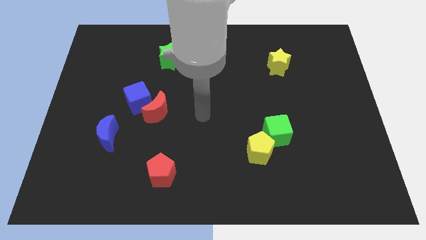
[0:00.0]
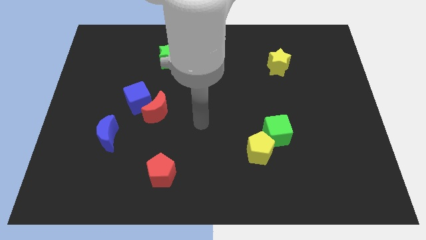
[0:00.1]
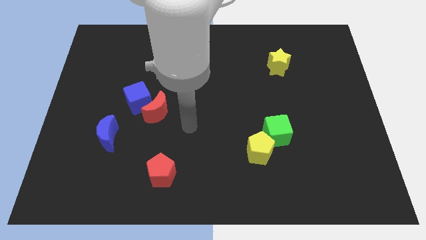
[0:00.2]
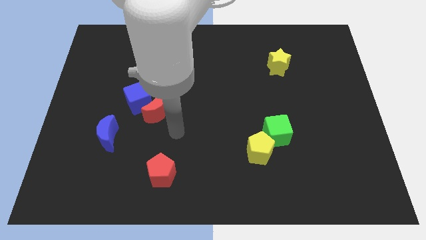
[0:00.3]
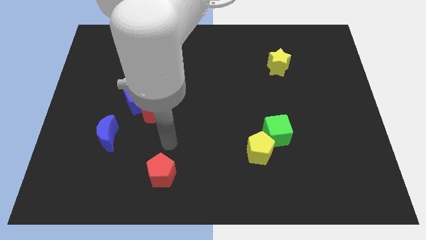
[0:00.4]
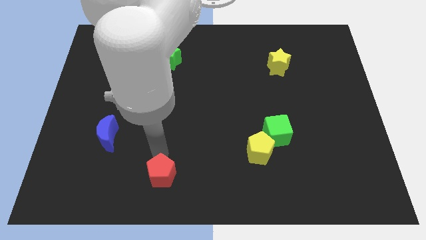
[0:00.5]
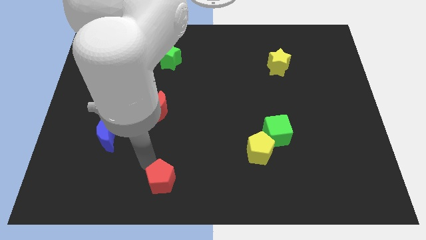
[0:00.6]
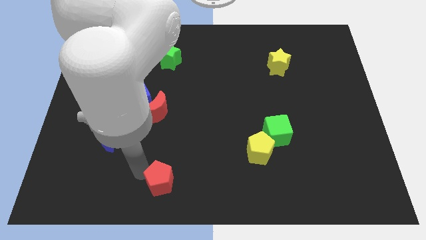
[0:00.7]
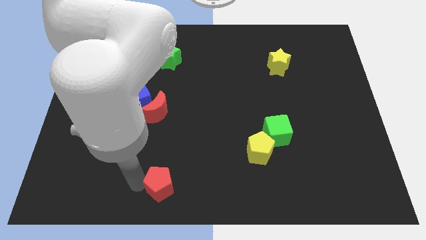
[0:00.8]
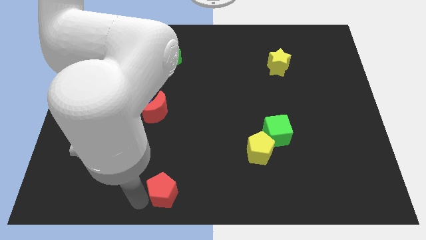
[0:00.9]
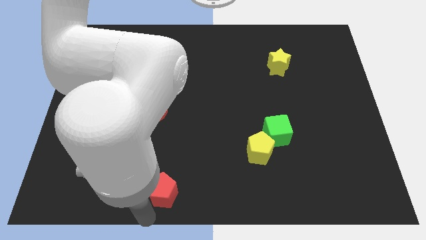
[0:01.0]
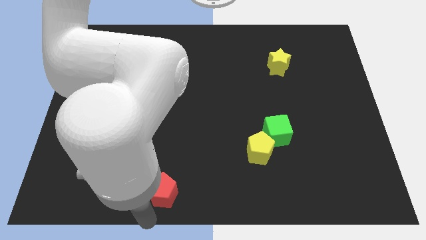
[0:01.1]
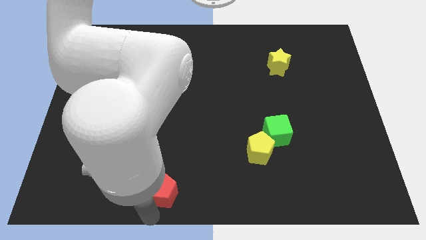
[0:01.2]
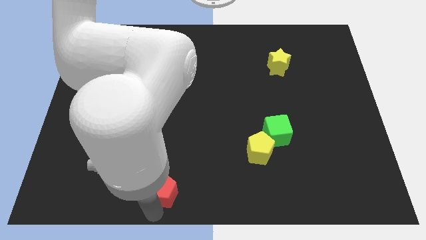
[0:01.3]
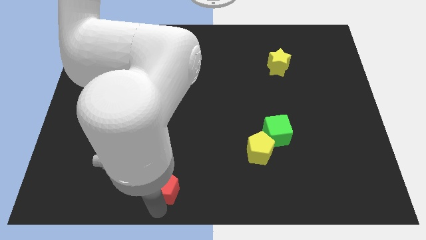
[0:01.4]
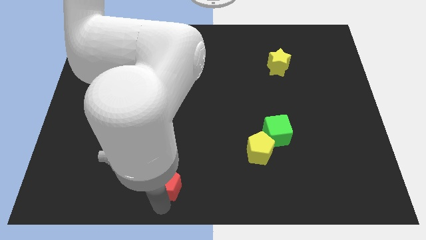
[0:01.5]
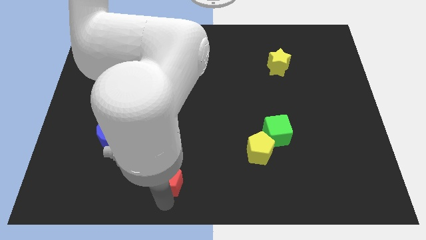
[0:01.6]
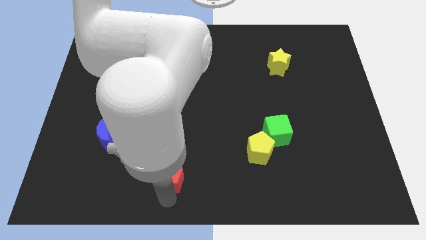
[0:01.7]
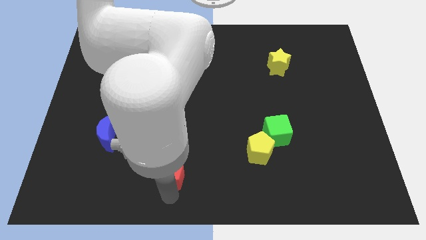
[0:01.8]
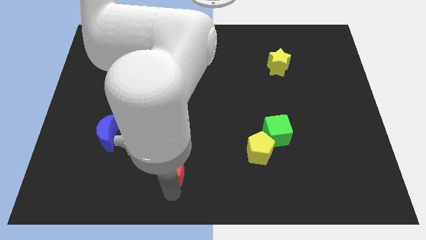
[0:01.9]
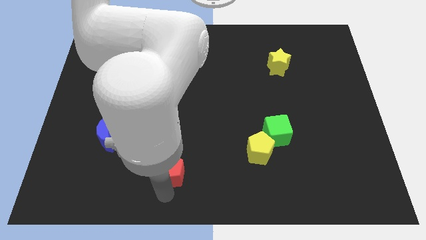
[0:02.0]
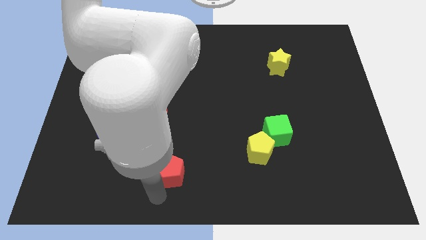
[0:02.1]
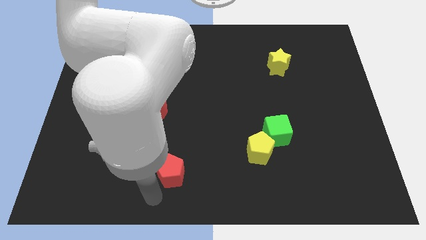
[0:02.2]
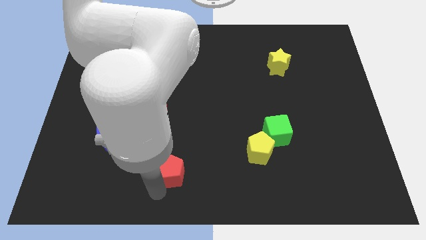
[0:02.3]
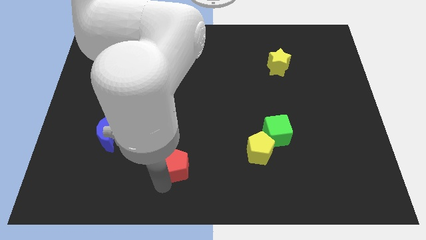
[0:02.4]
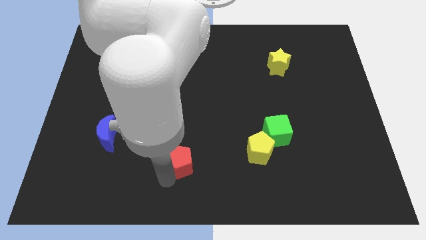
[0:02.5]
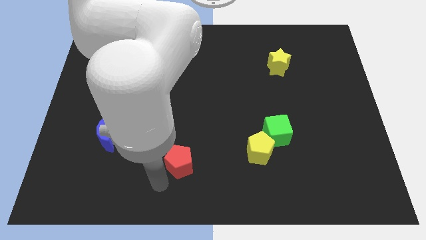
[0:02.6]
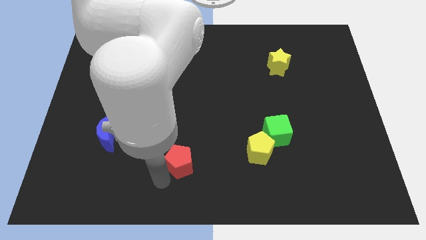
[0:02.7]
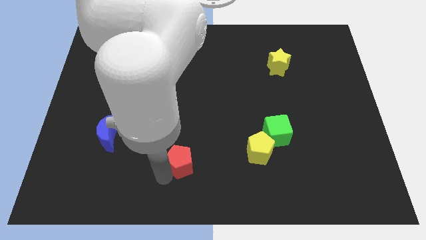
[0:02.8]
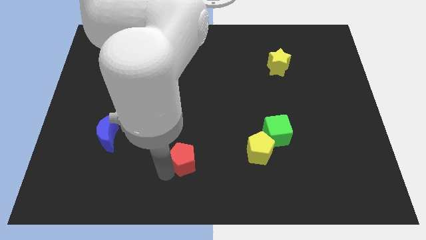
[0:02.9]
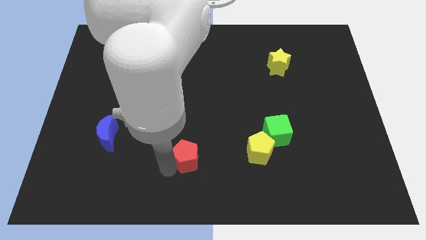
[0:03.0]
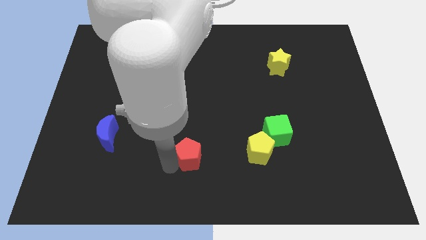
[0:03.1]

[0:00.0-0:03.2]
slide the red pentagon a little upwards and to the right diagonally

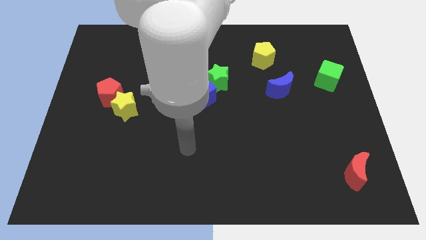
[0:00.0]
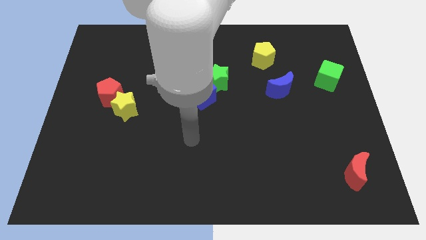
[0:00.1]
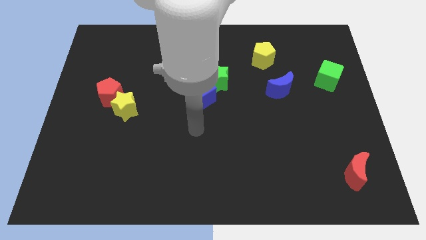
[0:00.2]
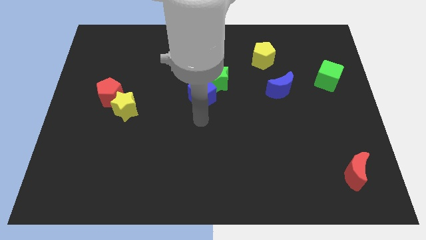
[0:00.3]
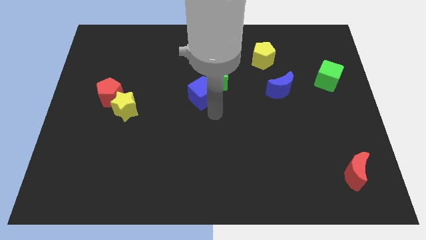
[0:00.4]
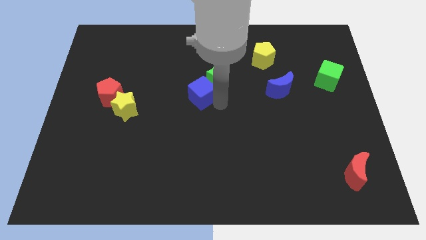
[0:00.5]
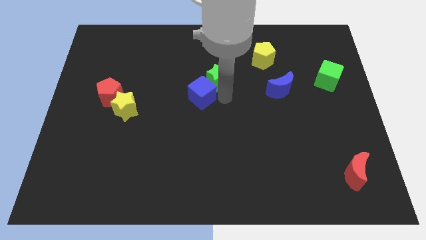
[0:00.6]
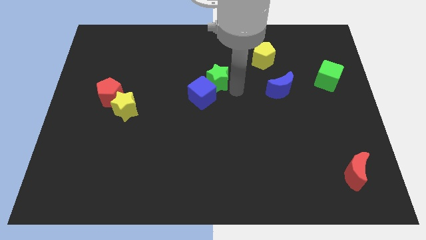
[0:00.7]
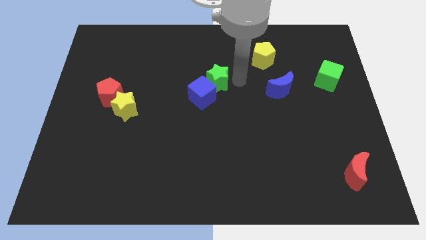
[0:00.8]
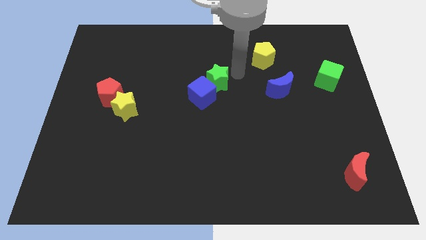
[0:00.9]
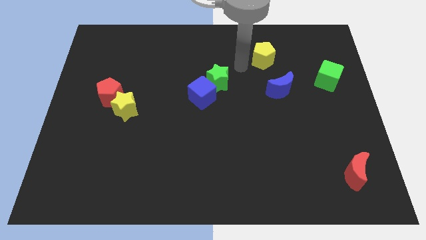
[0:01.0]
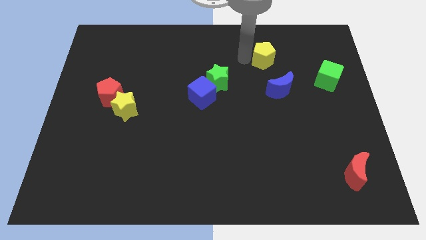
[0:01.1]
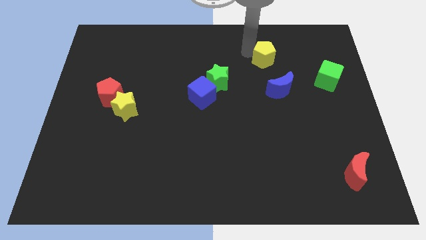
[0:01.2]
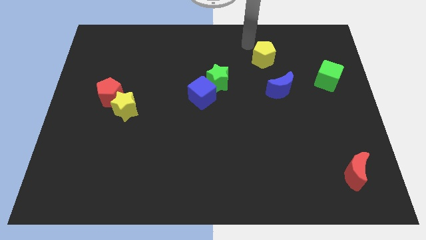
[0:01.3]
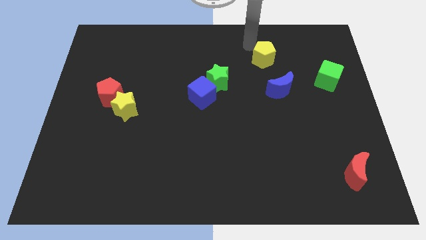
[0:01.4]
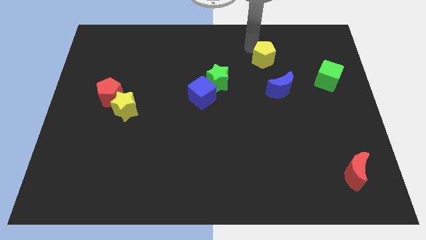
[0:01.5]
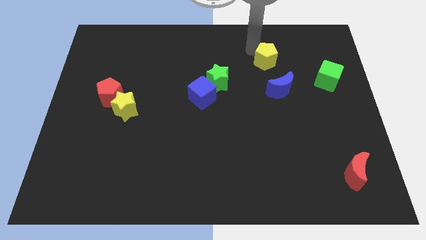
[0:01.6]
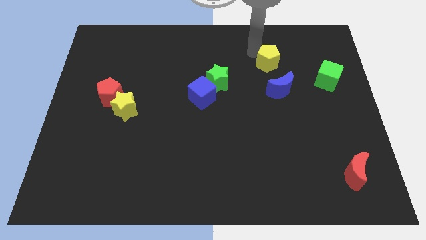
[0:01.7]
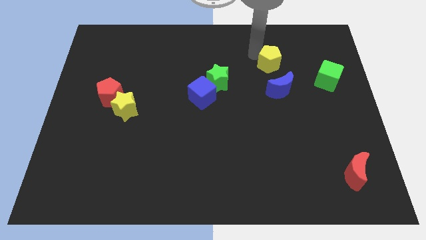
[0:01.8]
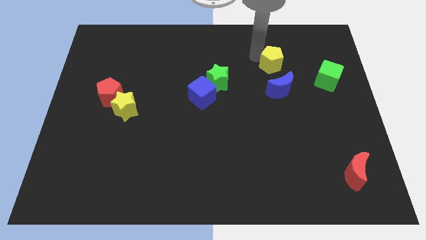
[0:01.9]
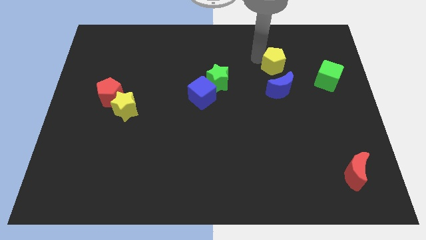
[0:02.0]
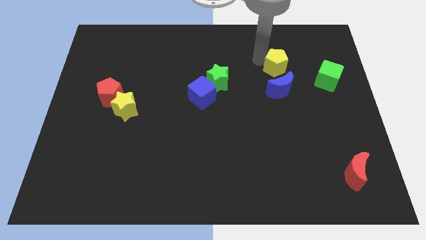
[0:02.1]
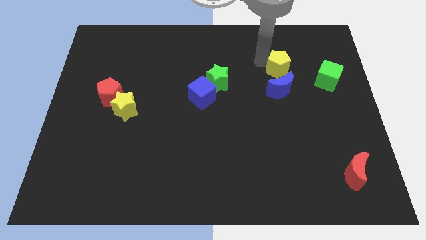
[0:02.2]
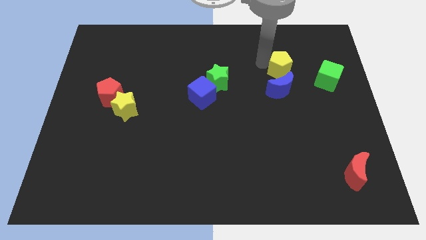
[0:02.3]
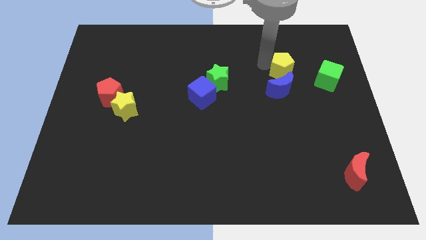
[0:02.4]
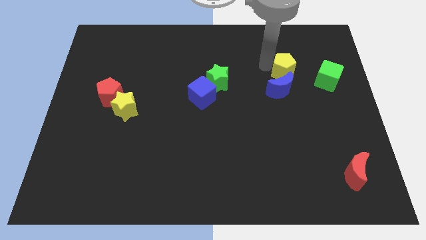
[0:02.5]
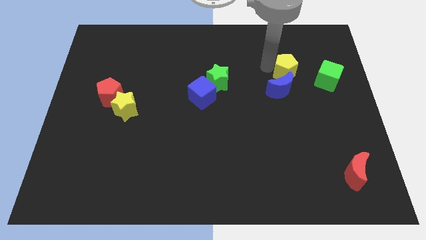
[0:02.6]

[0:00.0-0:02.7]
slightly slide the yellow pentagon downwards and then to the right

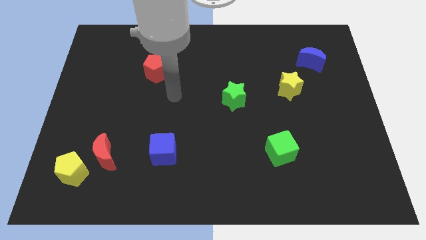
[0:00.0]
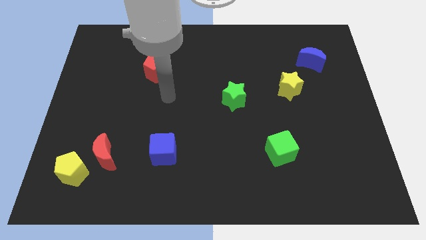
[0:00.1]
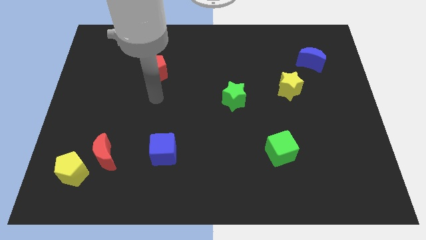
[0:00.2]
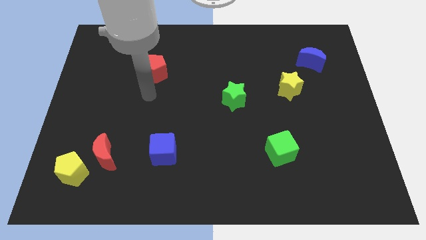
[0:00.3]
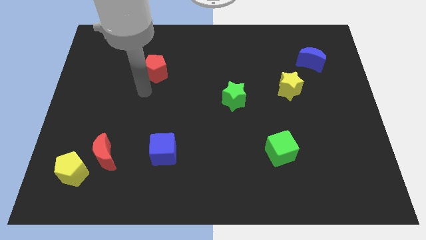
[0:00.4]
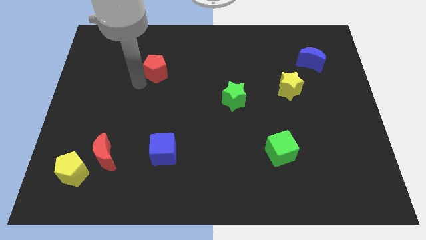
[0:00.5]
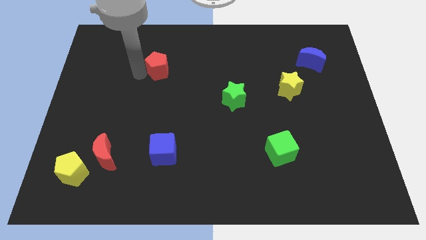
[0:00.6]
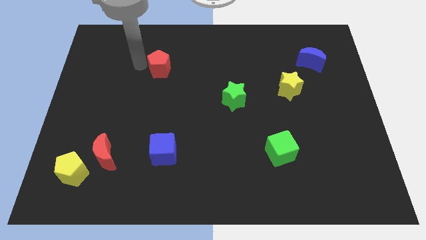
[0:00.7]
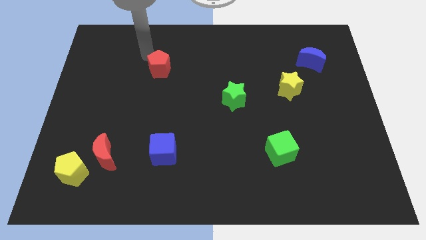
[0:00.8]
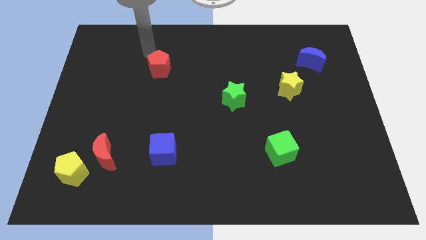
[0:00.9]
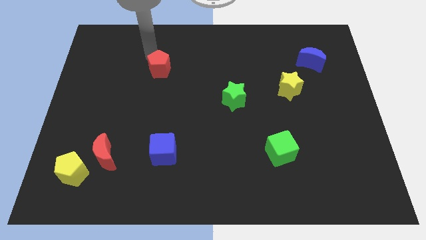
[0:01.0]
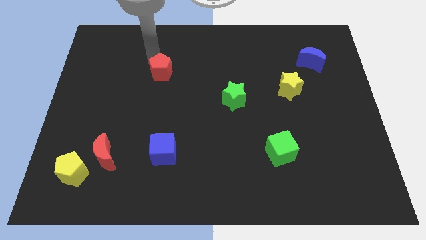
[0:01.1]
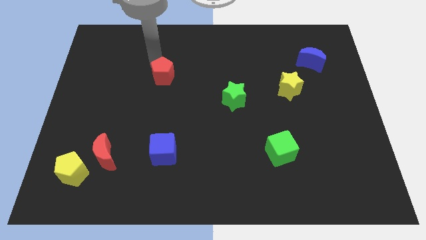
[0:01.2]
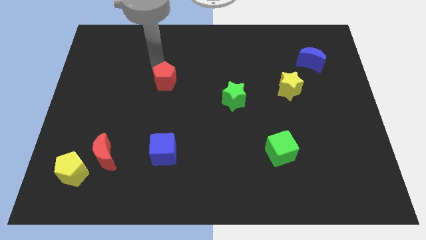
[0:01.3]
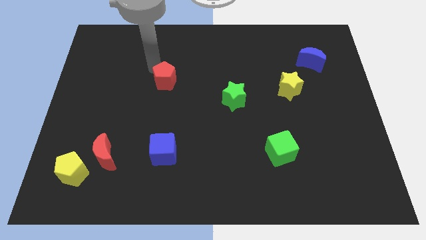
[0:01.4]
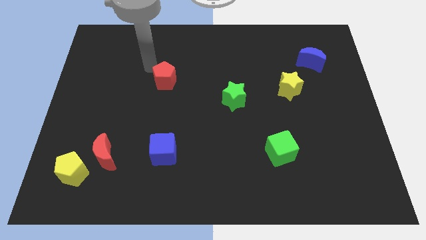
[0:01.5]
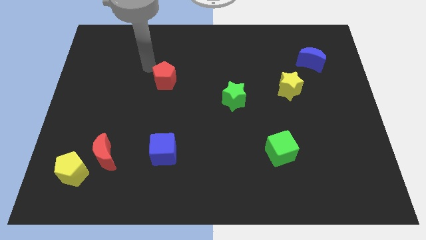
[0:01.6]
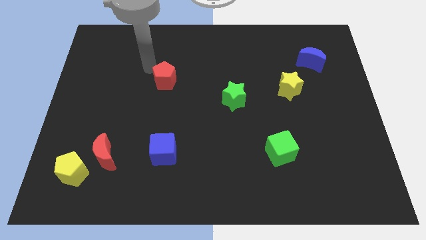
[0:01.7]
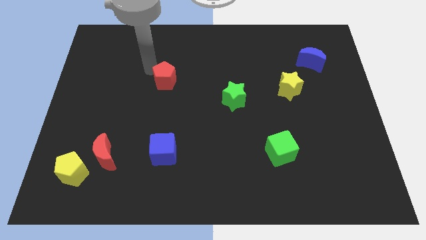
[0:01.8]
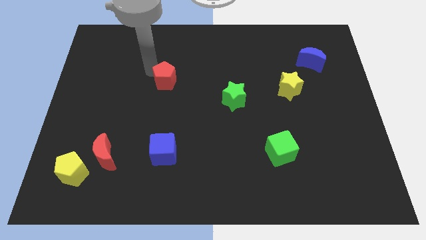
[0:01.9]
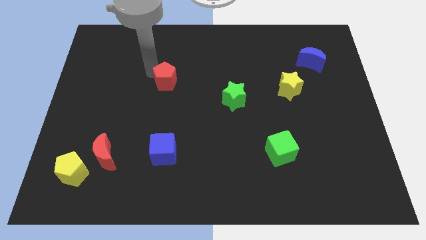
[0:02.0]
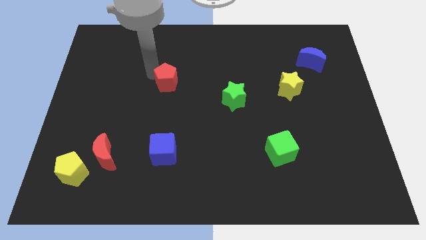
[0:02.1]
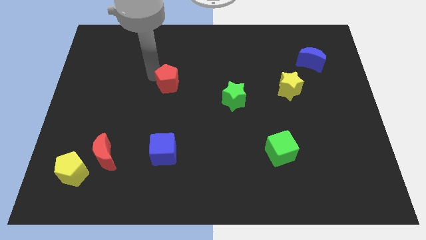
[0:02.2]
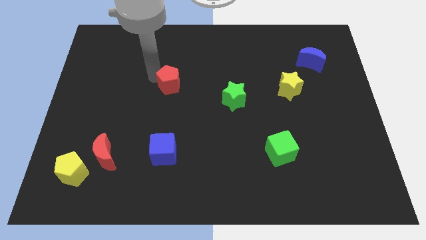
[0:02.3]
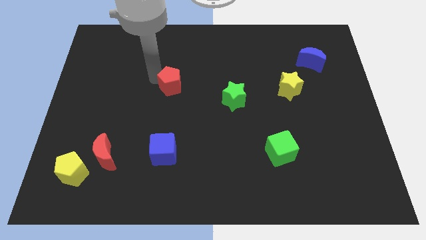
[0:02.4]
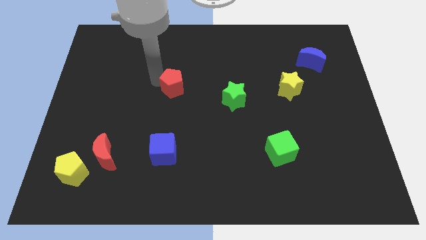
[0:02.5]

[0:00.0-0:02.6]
slide the red pentagon diagonally downwards and right a little bit
